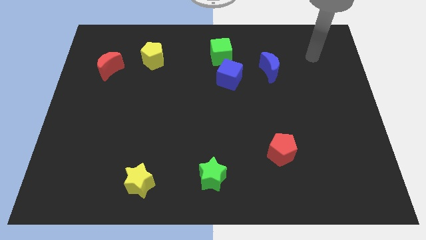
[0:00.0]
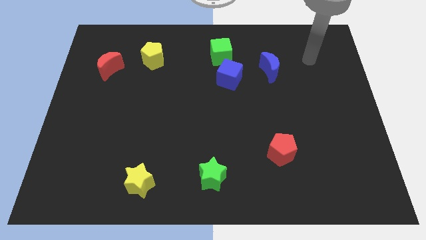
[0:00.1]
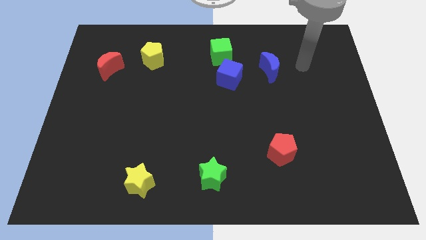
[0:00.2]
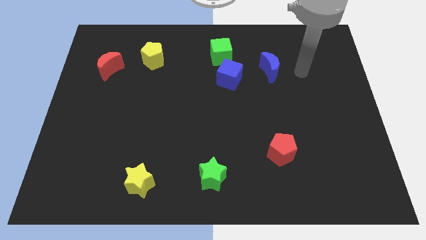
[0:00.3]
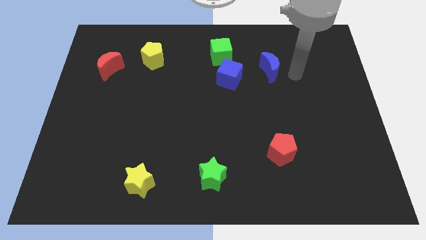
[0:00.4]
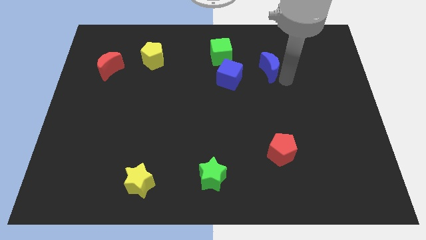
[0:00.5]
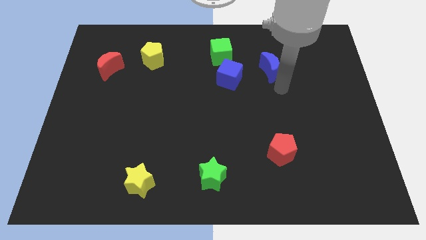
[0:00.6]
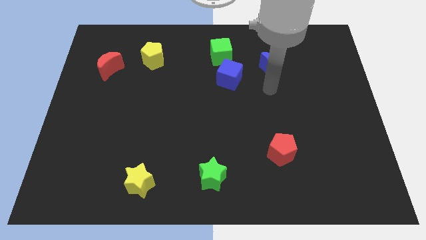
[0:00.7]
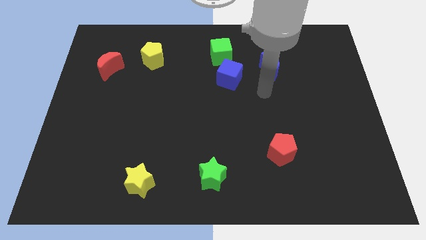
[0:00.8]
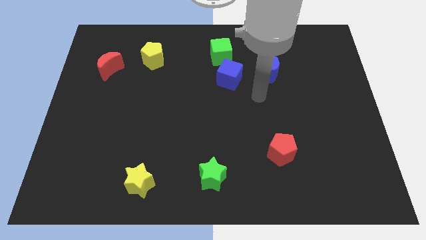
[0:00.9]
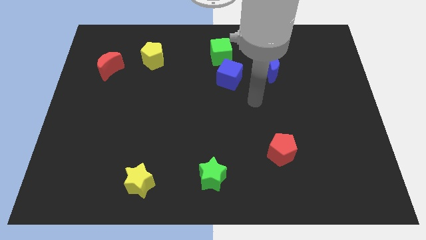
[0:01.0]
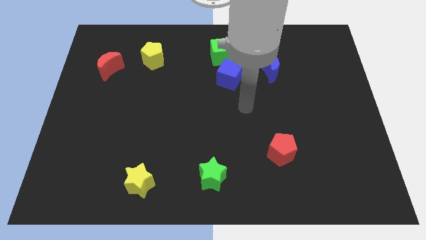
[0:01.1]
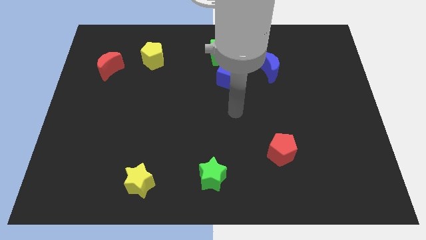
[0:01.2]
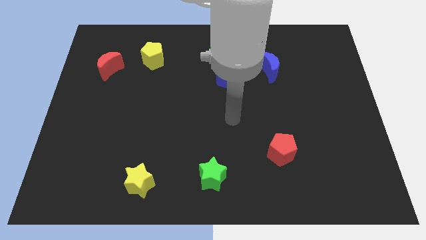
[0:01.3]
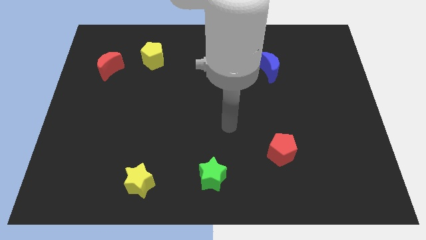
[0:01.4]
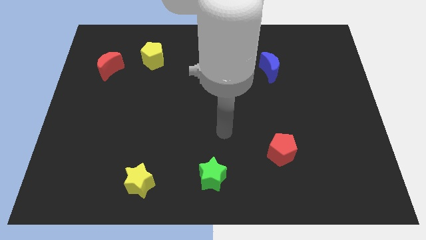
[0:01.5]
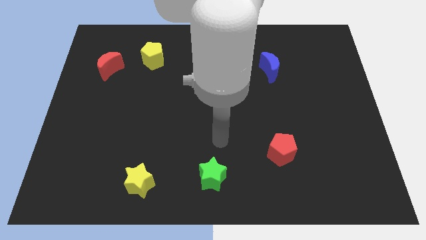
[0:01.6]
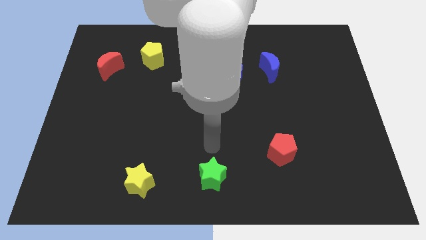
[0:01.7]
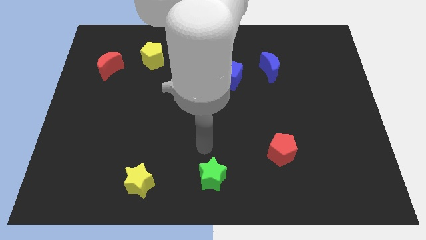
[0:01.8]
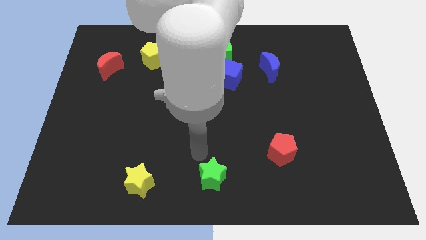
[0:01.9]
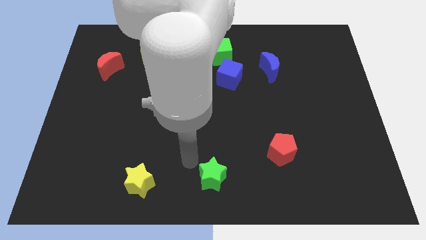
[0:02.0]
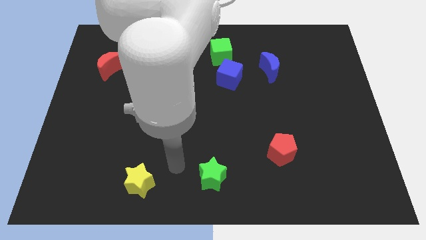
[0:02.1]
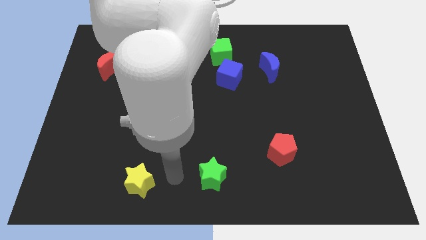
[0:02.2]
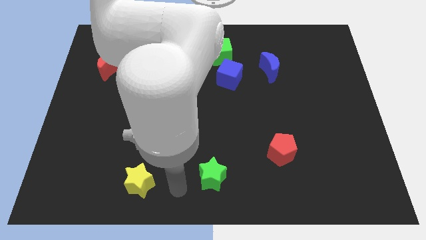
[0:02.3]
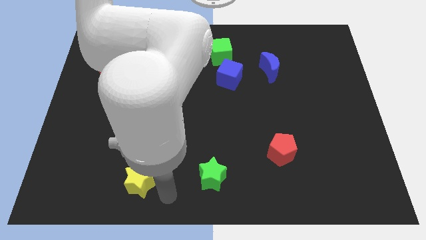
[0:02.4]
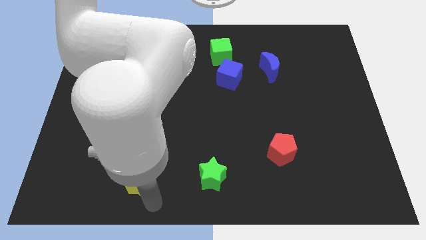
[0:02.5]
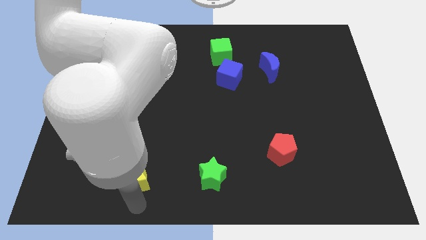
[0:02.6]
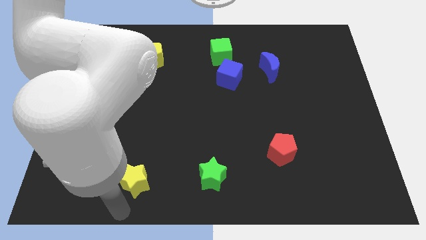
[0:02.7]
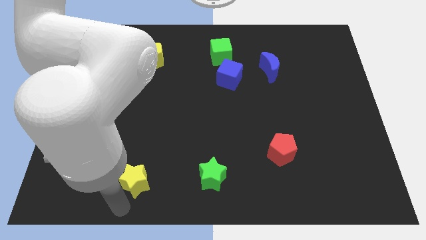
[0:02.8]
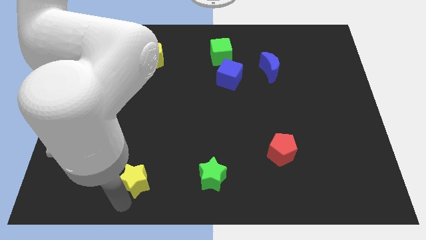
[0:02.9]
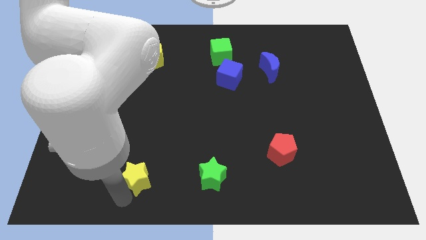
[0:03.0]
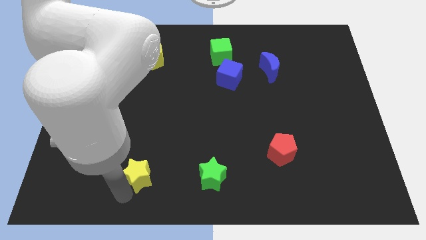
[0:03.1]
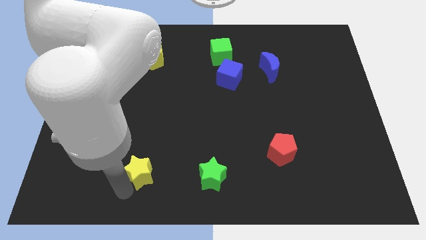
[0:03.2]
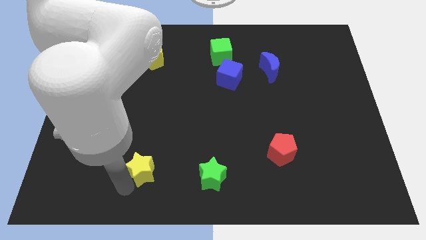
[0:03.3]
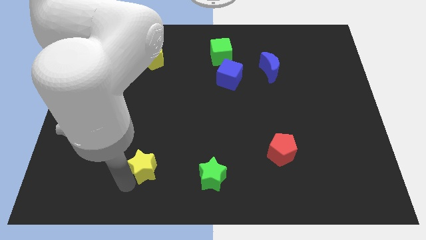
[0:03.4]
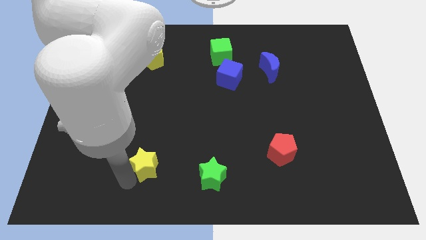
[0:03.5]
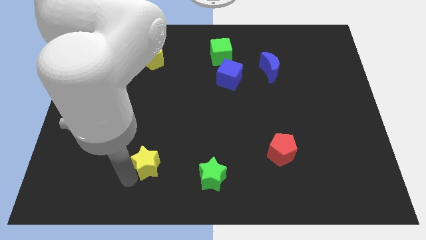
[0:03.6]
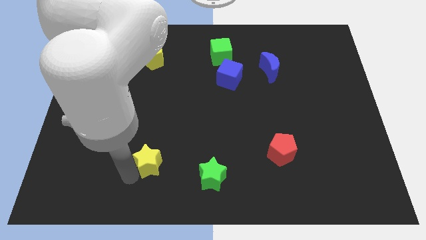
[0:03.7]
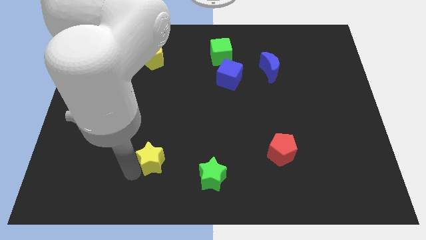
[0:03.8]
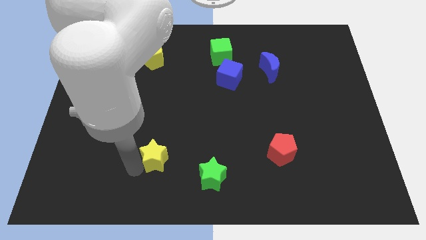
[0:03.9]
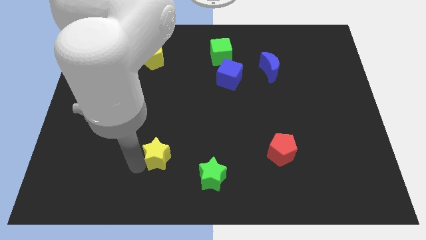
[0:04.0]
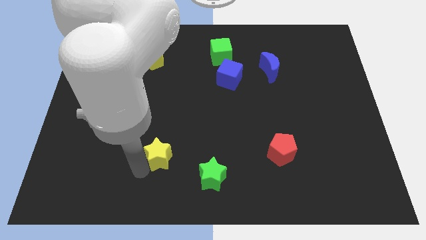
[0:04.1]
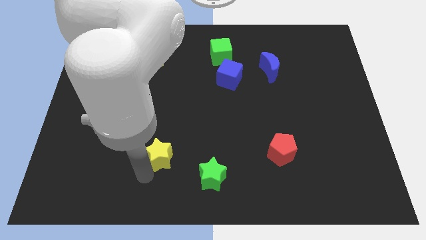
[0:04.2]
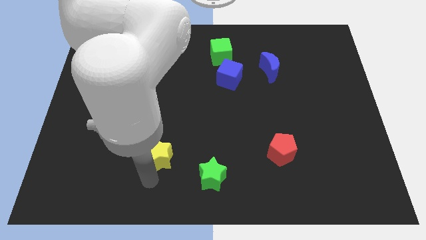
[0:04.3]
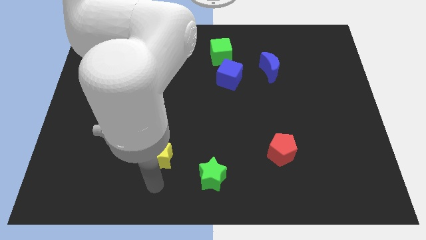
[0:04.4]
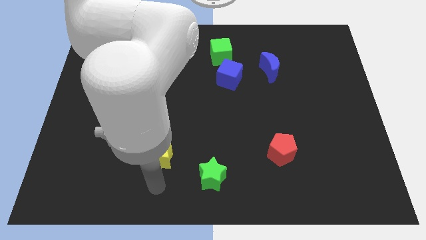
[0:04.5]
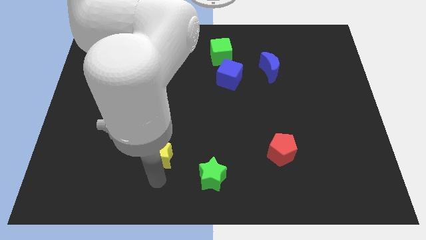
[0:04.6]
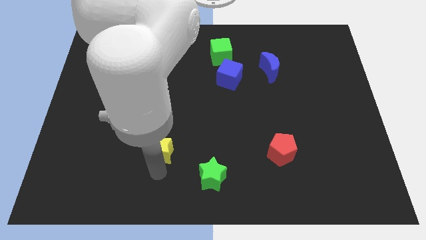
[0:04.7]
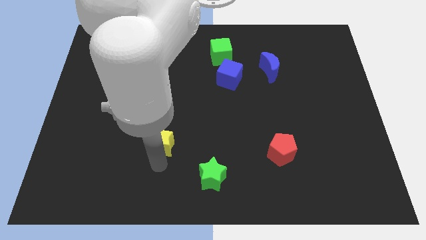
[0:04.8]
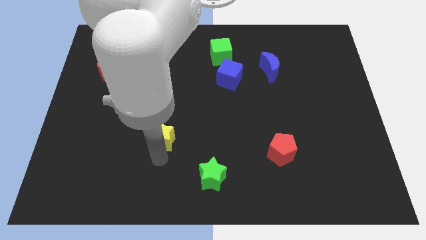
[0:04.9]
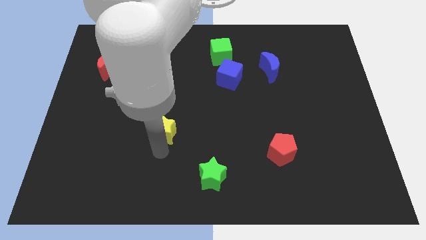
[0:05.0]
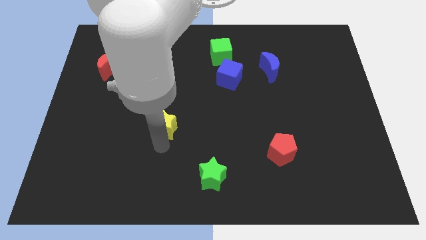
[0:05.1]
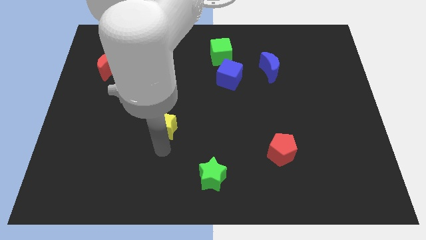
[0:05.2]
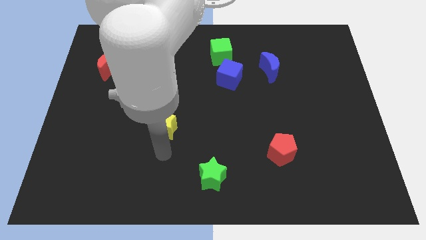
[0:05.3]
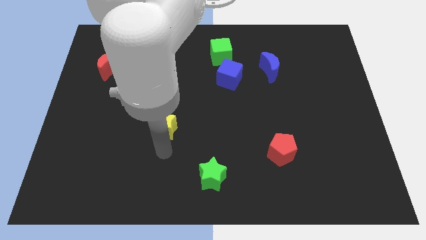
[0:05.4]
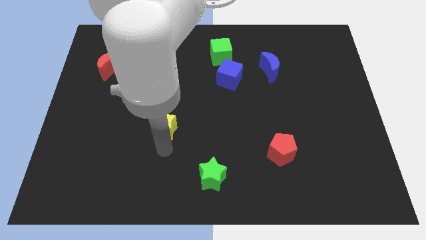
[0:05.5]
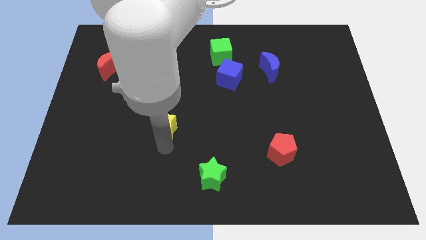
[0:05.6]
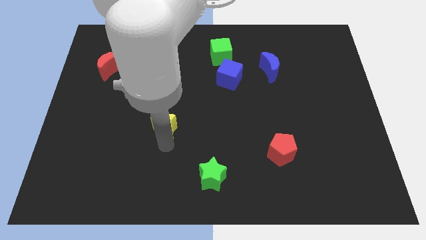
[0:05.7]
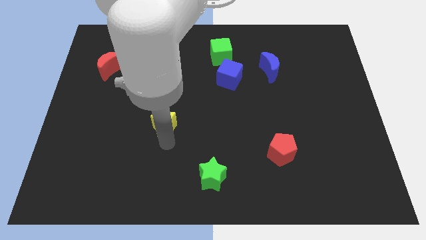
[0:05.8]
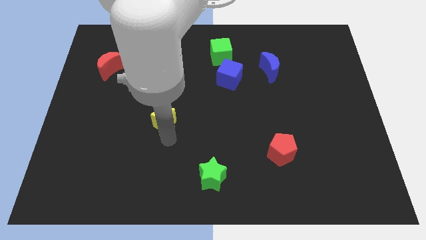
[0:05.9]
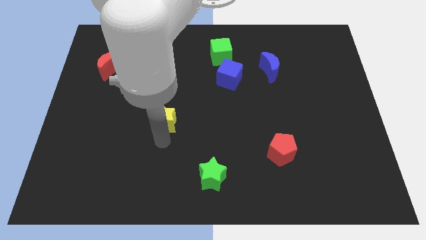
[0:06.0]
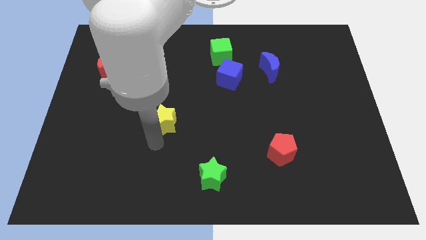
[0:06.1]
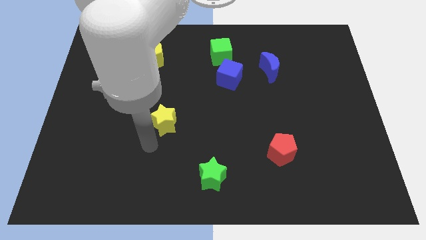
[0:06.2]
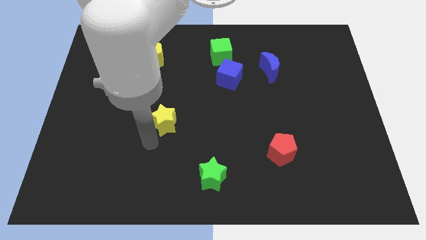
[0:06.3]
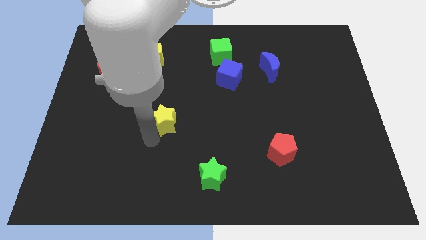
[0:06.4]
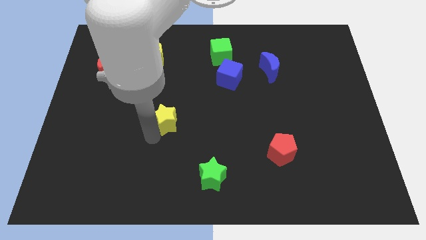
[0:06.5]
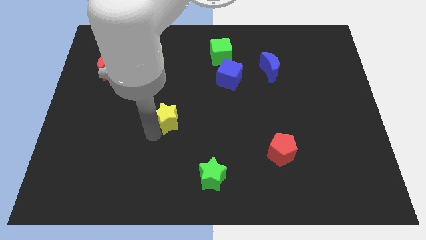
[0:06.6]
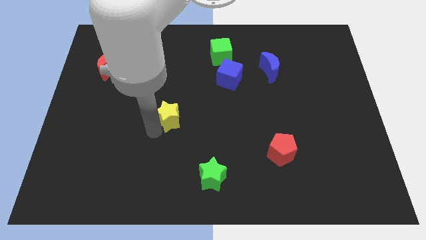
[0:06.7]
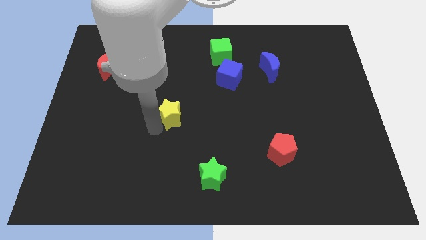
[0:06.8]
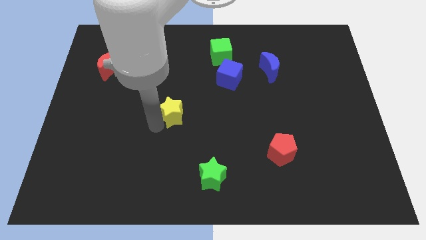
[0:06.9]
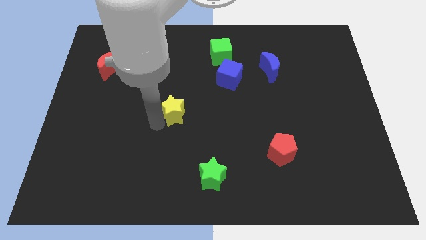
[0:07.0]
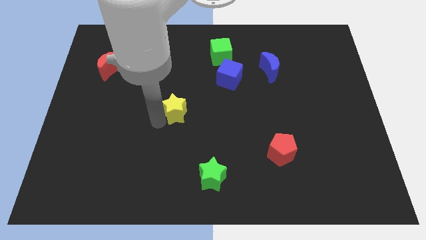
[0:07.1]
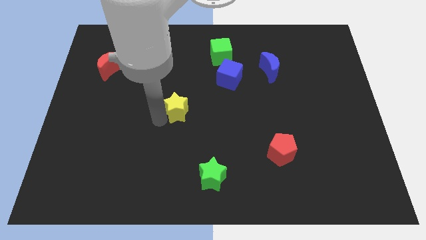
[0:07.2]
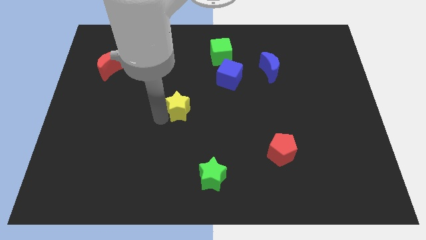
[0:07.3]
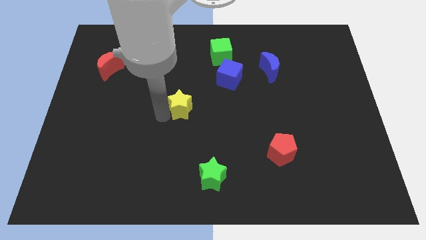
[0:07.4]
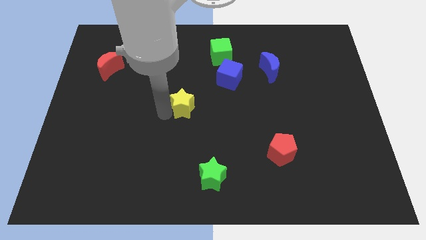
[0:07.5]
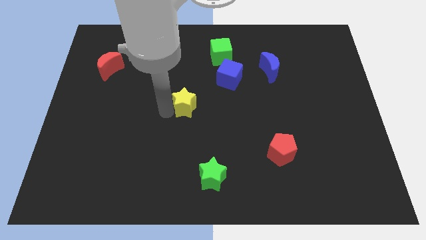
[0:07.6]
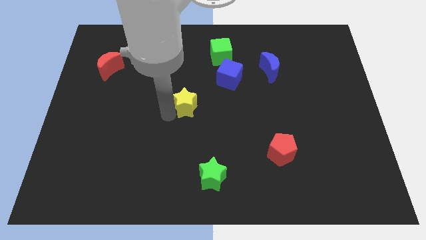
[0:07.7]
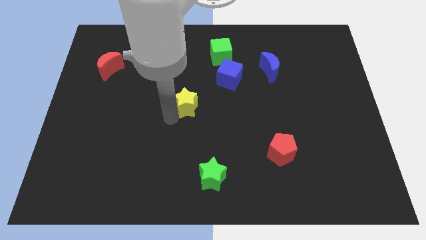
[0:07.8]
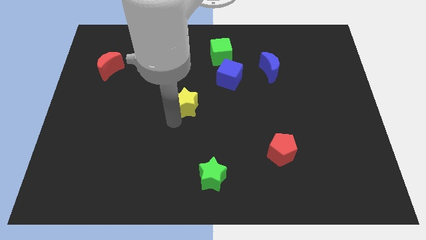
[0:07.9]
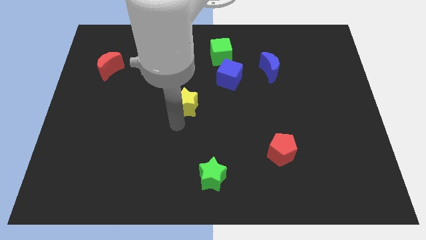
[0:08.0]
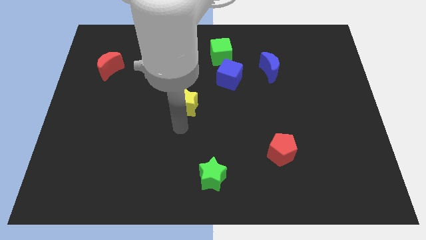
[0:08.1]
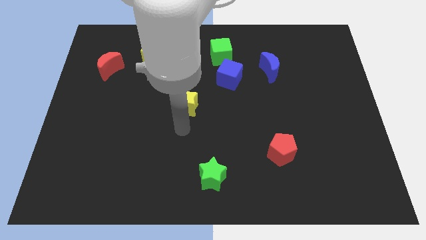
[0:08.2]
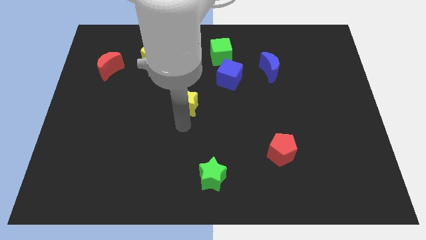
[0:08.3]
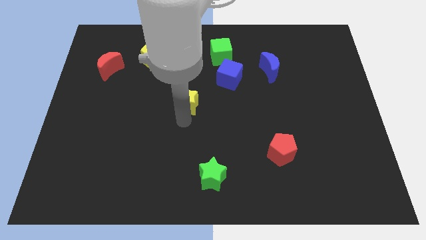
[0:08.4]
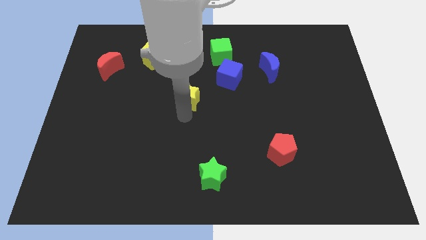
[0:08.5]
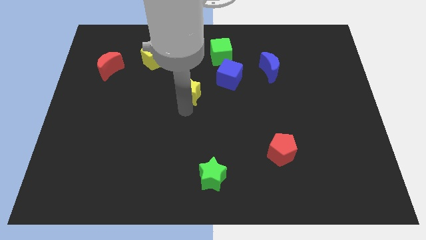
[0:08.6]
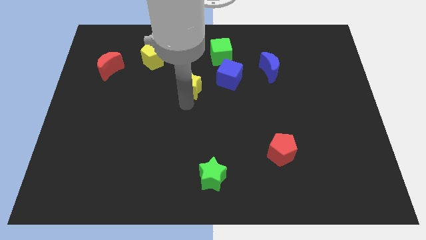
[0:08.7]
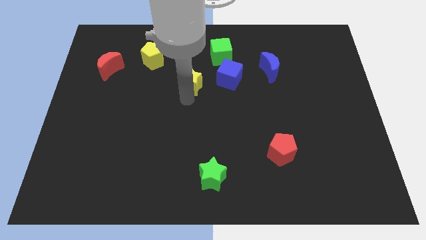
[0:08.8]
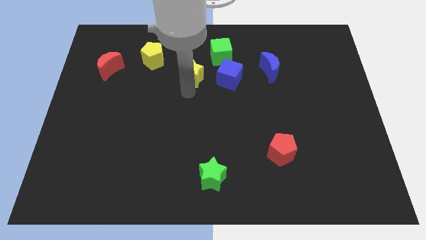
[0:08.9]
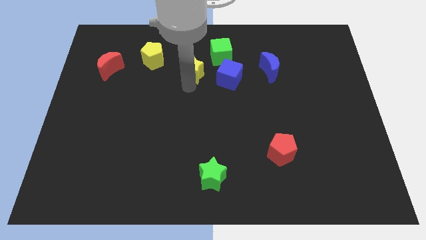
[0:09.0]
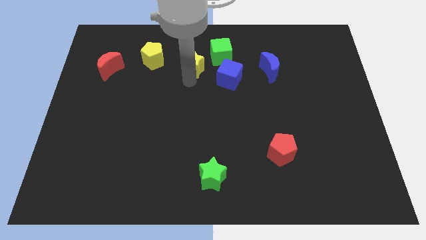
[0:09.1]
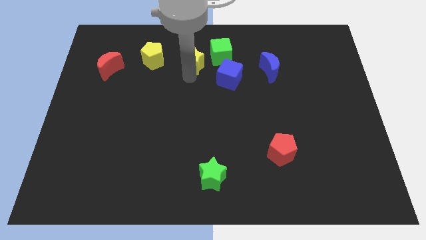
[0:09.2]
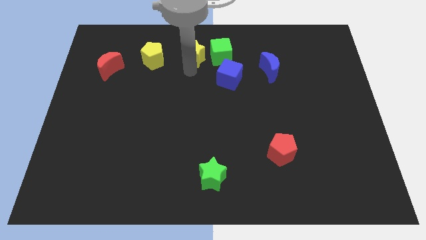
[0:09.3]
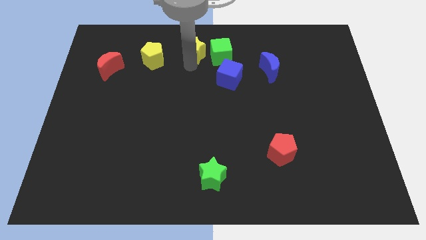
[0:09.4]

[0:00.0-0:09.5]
slide the yellow star to the top side
